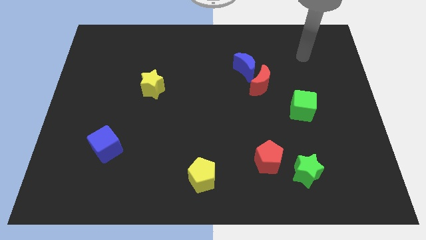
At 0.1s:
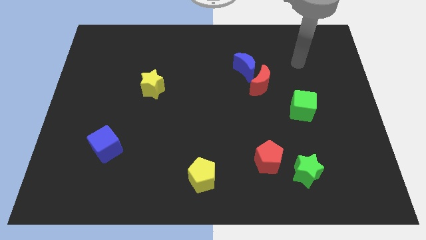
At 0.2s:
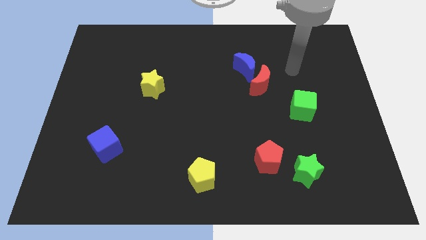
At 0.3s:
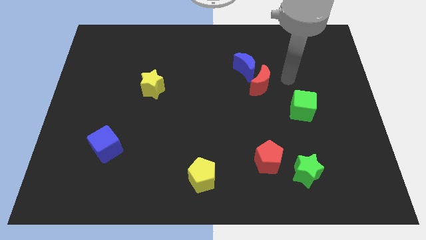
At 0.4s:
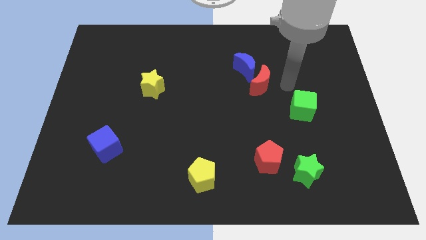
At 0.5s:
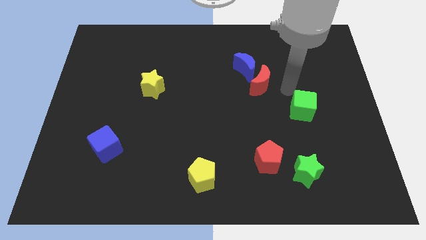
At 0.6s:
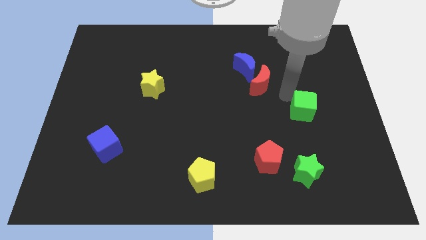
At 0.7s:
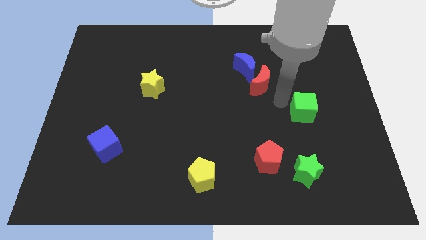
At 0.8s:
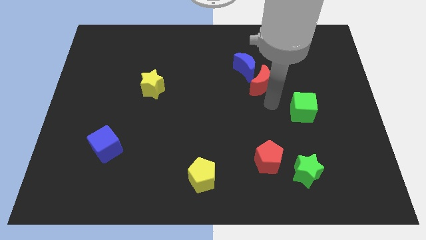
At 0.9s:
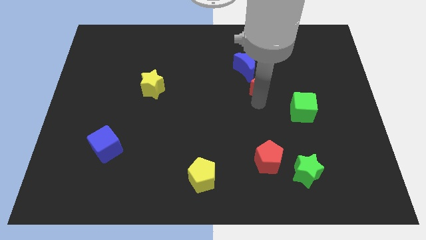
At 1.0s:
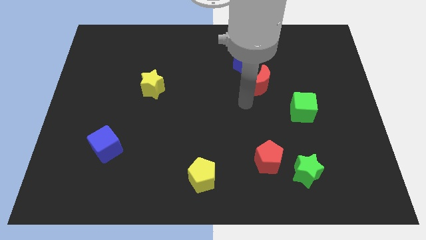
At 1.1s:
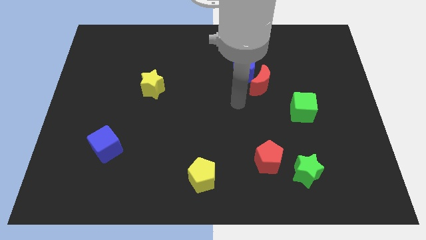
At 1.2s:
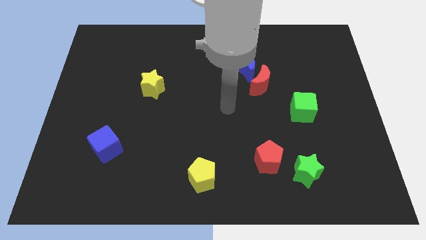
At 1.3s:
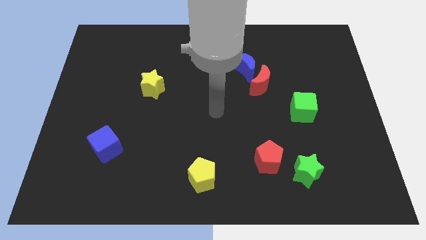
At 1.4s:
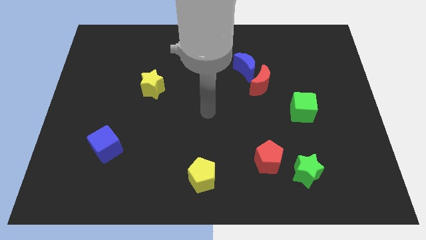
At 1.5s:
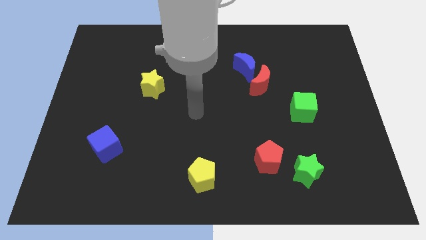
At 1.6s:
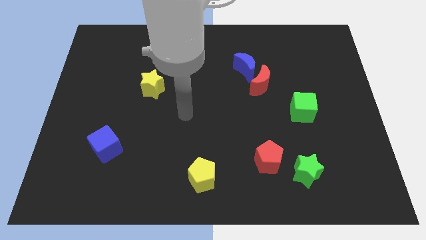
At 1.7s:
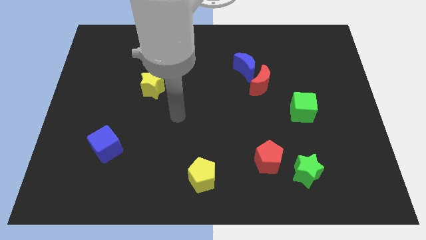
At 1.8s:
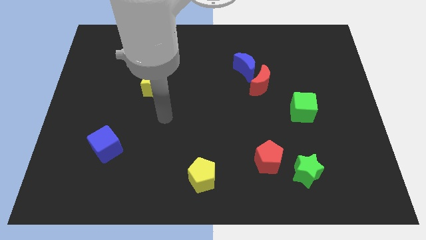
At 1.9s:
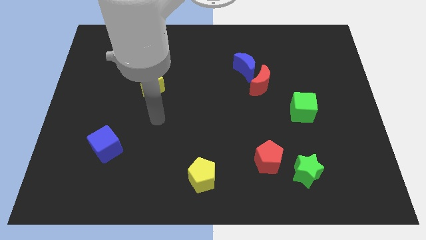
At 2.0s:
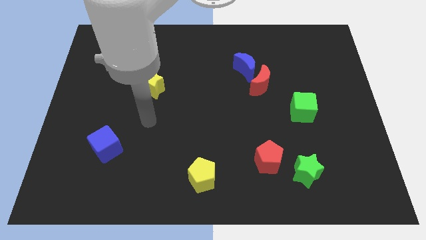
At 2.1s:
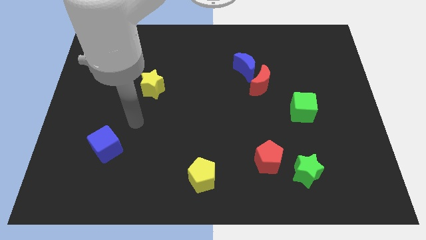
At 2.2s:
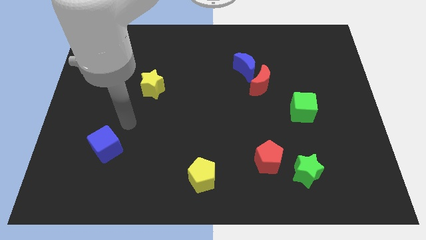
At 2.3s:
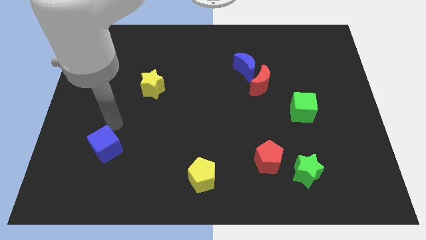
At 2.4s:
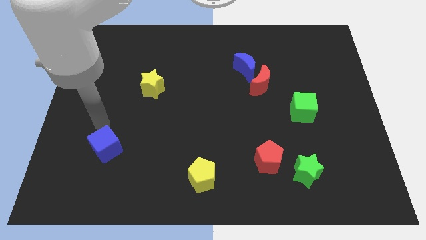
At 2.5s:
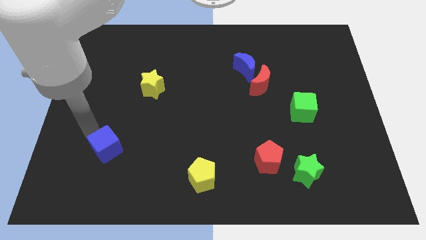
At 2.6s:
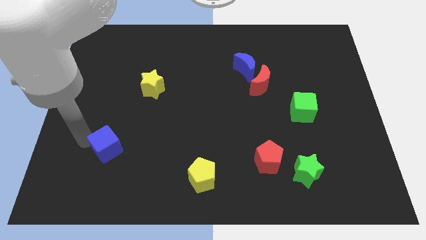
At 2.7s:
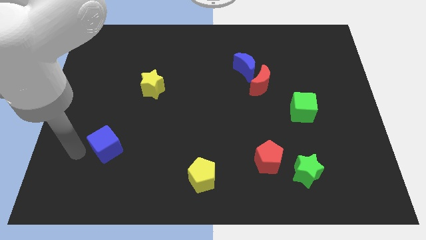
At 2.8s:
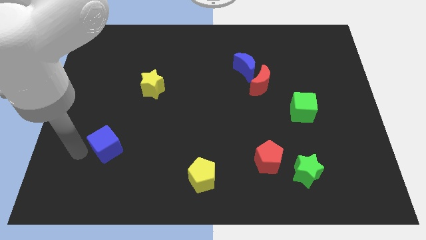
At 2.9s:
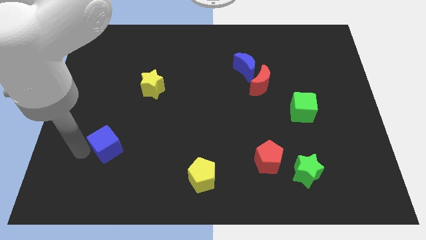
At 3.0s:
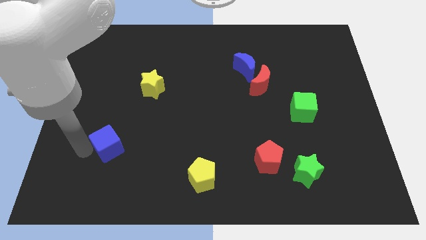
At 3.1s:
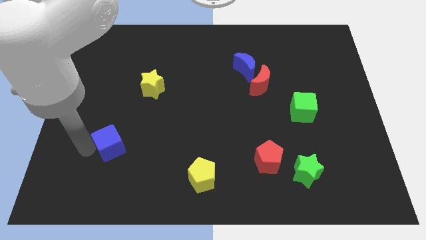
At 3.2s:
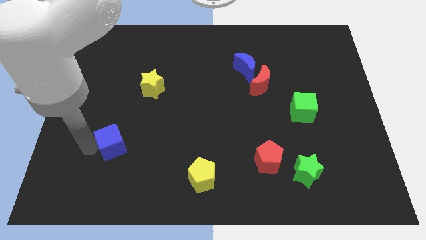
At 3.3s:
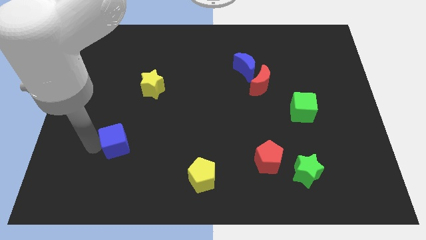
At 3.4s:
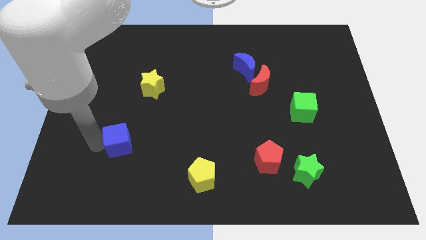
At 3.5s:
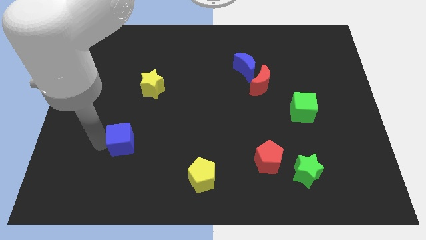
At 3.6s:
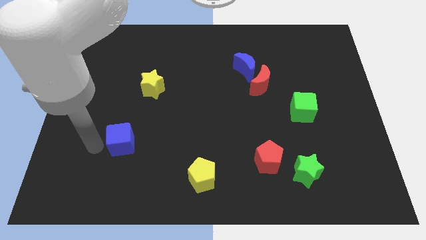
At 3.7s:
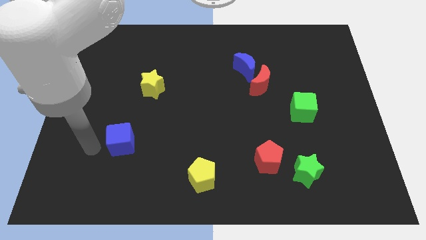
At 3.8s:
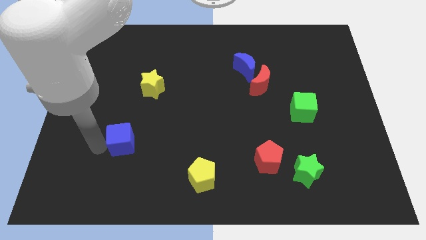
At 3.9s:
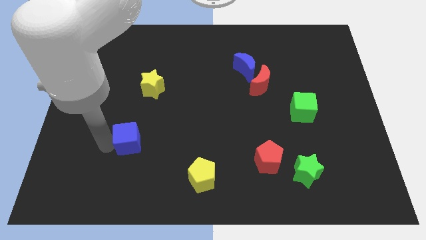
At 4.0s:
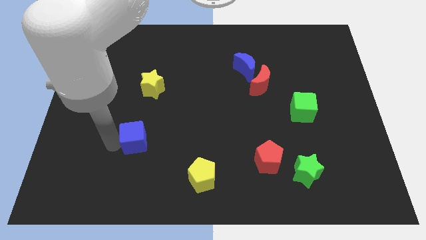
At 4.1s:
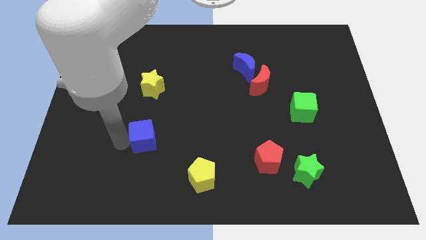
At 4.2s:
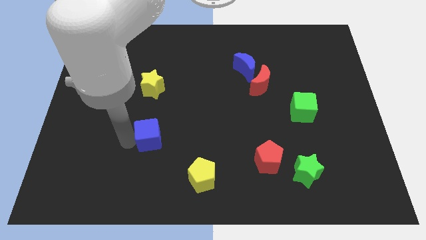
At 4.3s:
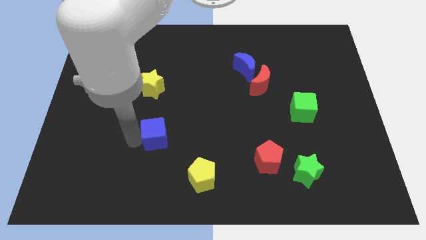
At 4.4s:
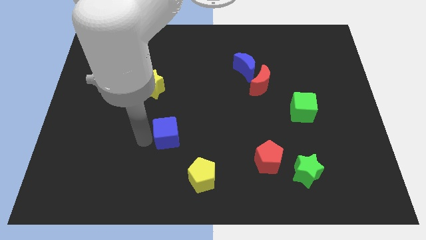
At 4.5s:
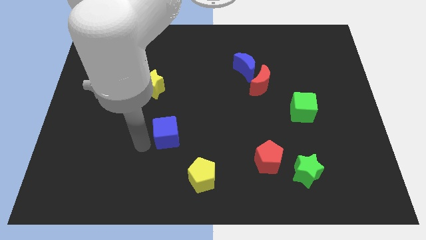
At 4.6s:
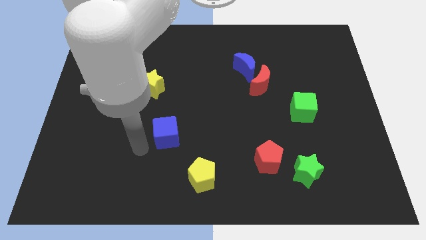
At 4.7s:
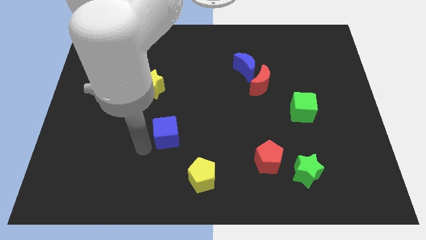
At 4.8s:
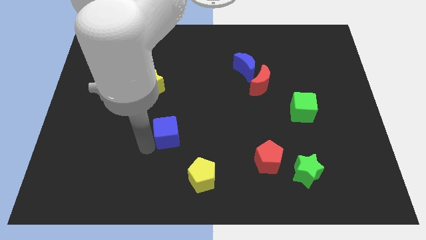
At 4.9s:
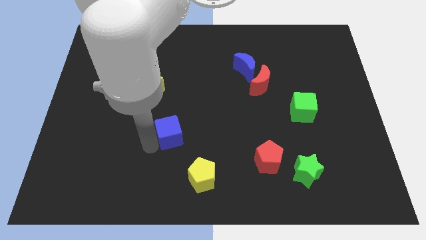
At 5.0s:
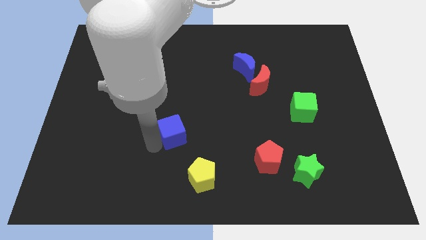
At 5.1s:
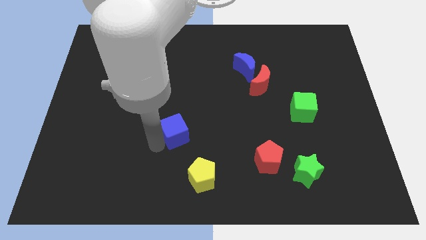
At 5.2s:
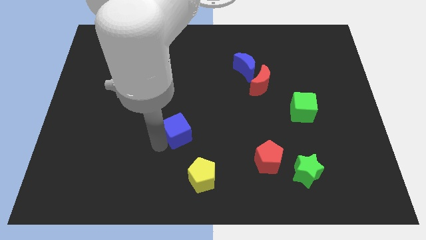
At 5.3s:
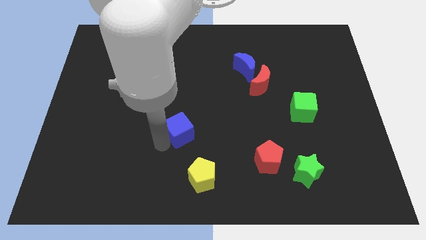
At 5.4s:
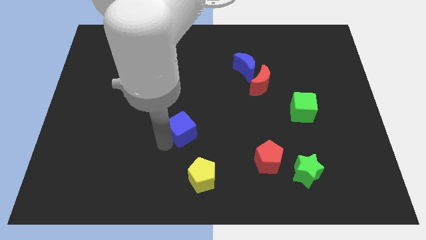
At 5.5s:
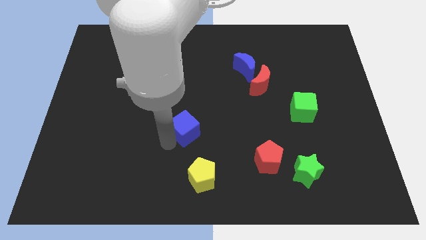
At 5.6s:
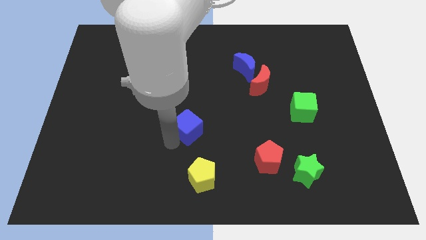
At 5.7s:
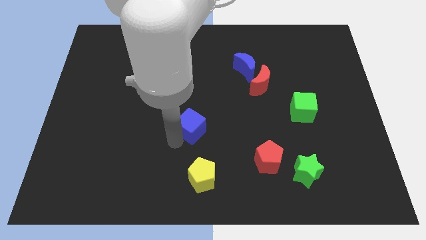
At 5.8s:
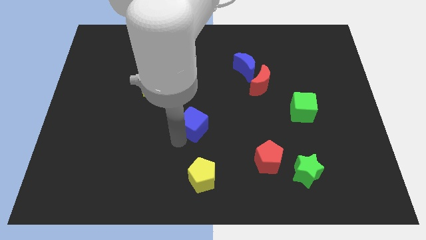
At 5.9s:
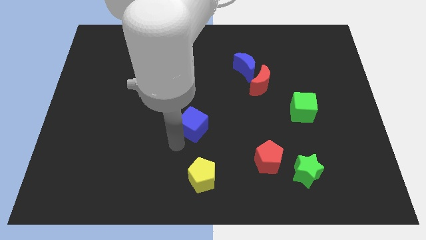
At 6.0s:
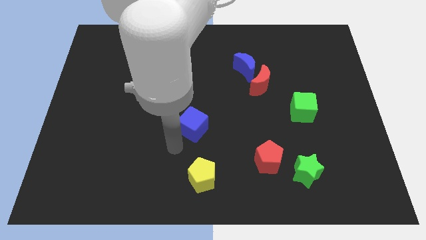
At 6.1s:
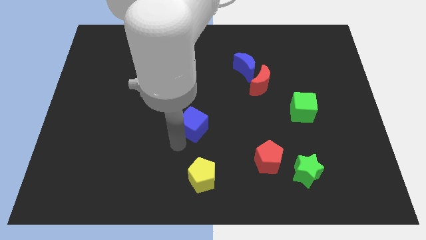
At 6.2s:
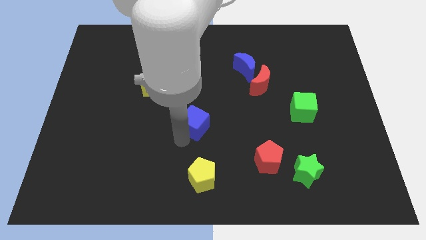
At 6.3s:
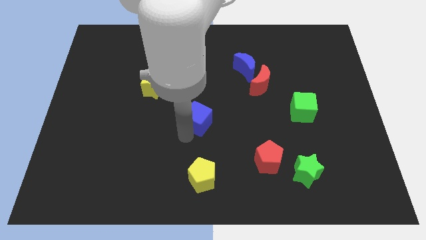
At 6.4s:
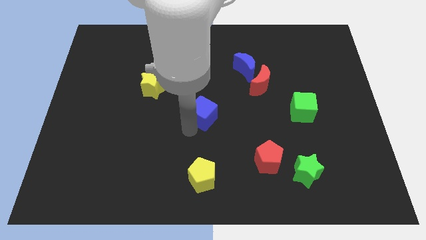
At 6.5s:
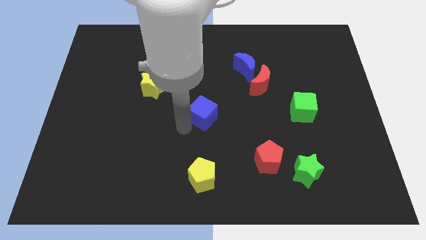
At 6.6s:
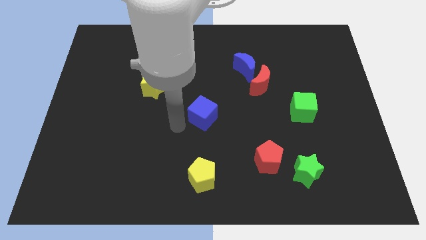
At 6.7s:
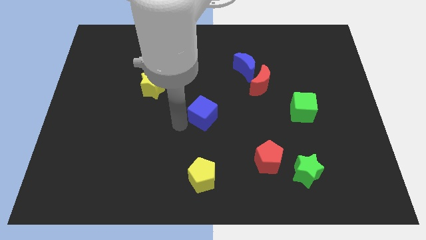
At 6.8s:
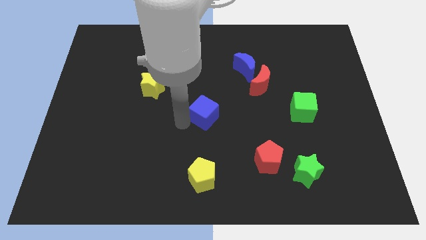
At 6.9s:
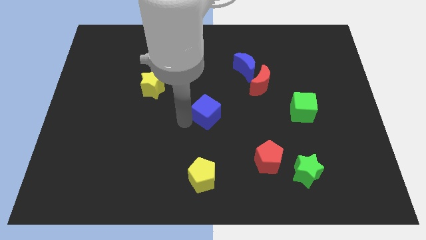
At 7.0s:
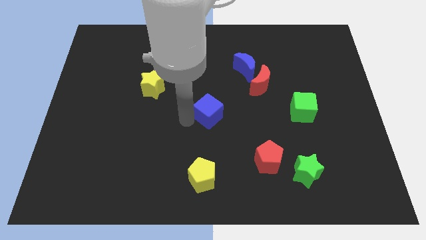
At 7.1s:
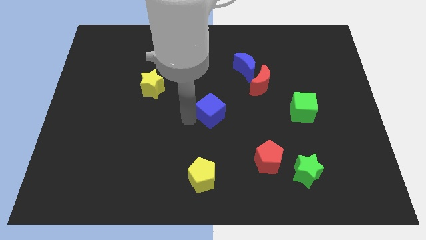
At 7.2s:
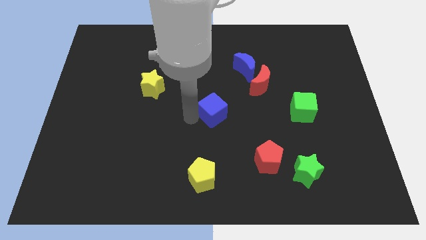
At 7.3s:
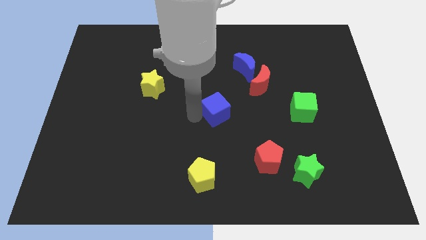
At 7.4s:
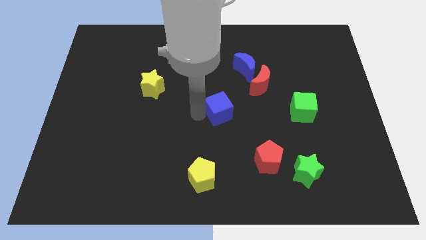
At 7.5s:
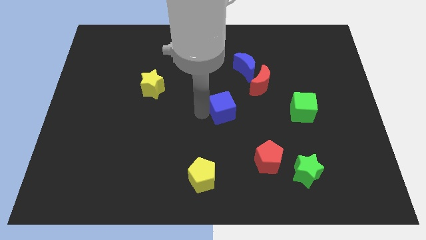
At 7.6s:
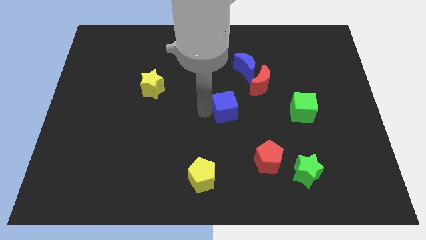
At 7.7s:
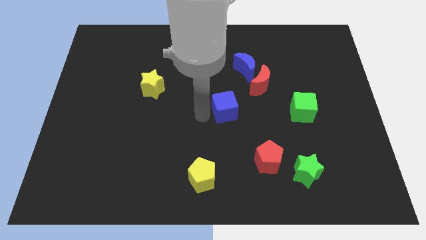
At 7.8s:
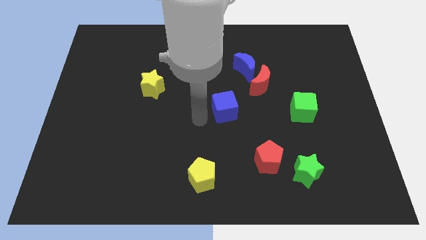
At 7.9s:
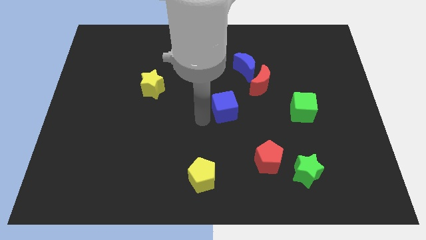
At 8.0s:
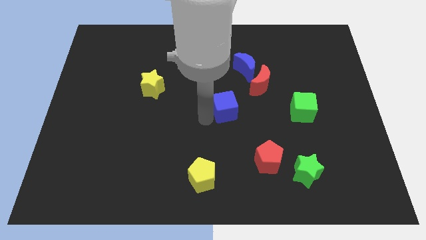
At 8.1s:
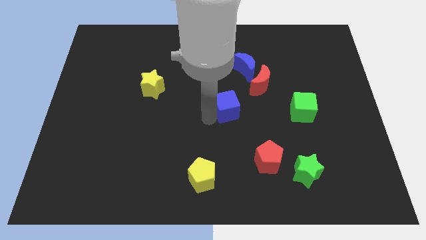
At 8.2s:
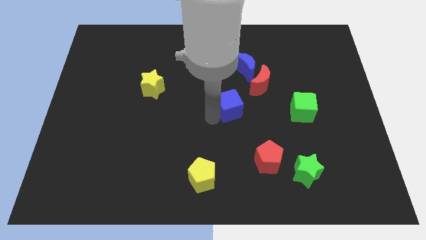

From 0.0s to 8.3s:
move the blue cube below the blue moon
